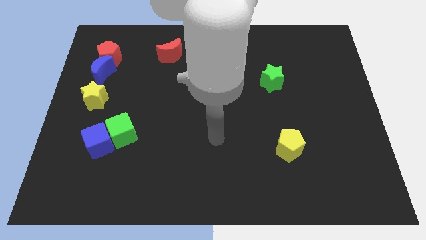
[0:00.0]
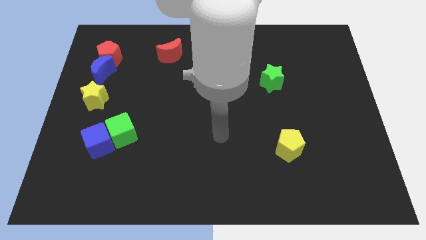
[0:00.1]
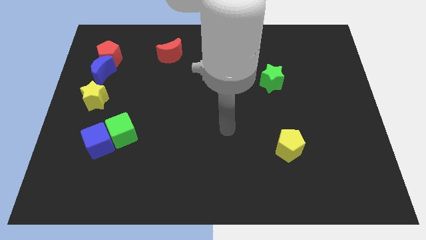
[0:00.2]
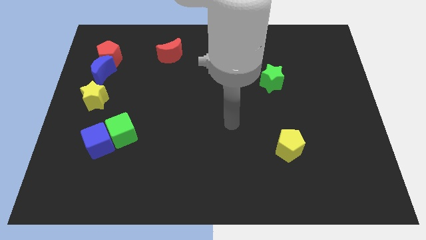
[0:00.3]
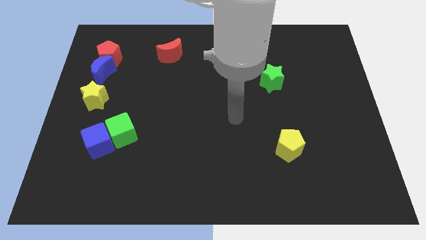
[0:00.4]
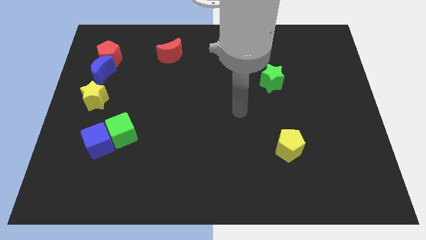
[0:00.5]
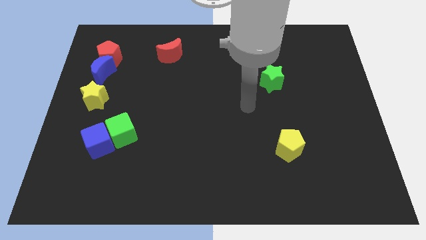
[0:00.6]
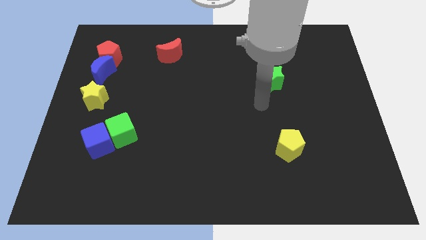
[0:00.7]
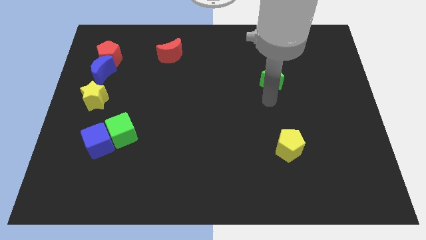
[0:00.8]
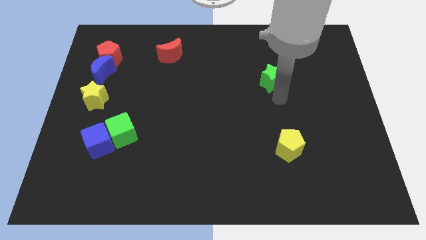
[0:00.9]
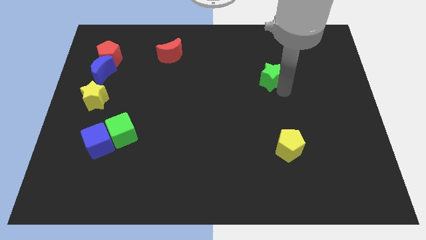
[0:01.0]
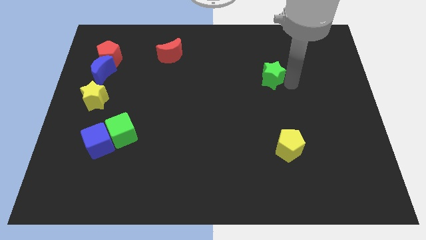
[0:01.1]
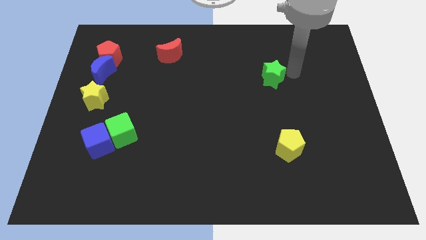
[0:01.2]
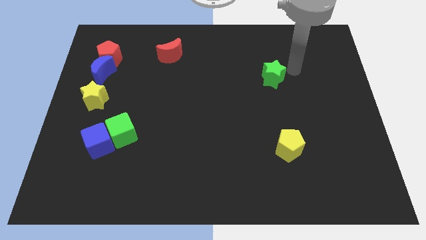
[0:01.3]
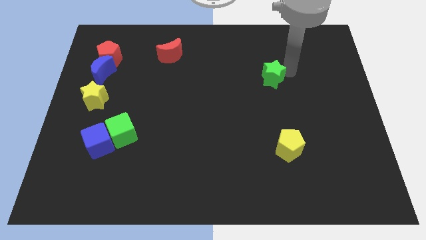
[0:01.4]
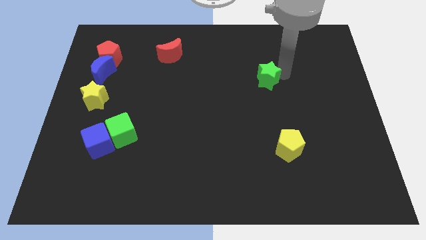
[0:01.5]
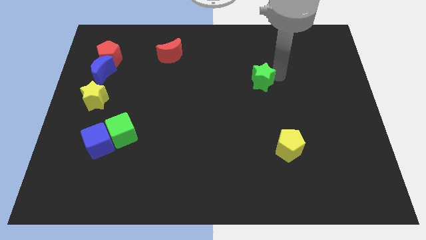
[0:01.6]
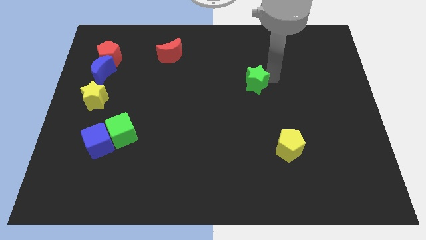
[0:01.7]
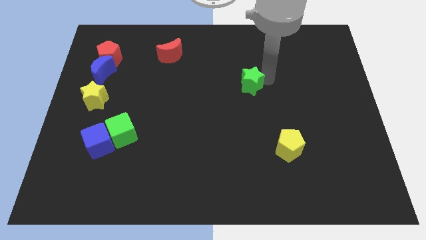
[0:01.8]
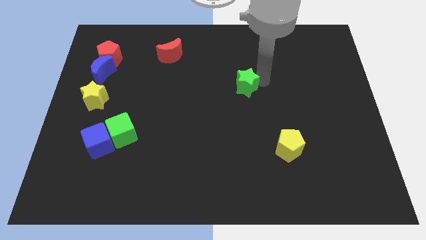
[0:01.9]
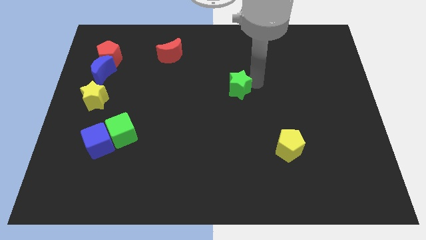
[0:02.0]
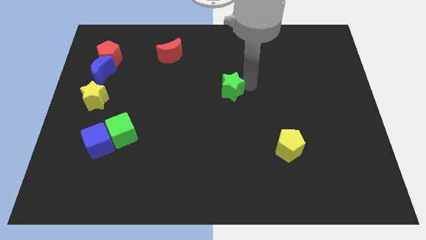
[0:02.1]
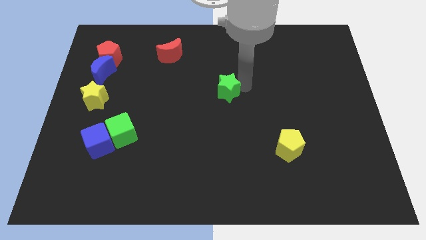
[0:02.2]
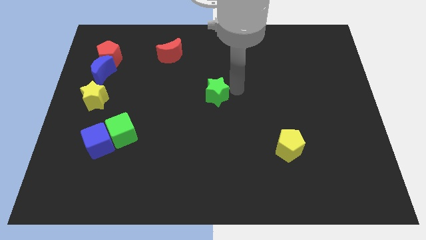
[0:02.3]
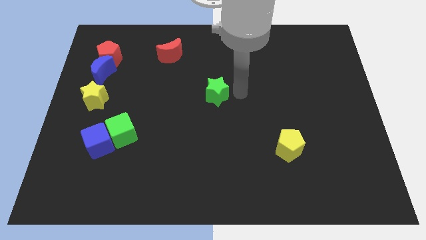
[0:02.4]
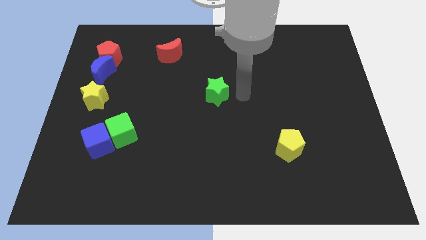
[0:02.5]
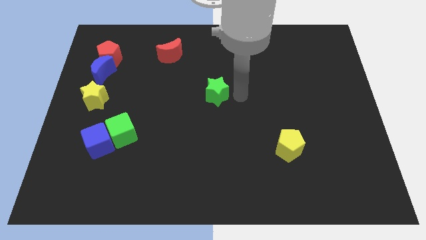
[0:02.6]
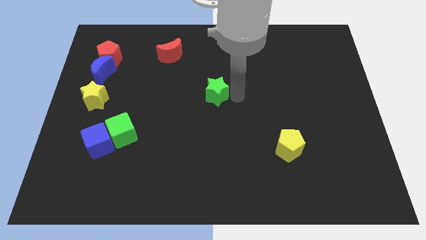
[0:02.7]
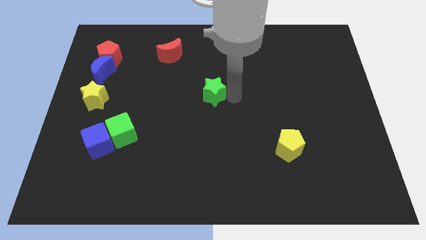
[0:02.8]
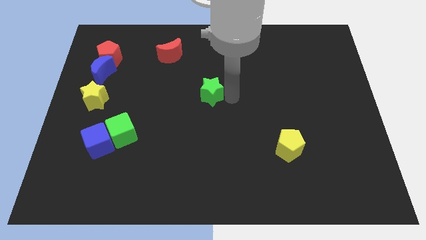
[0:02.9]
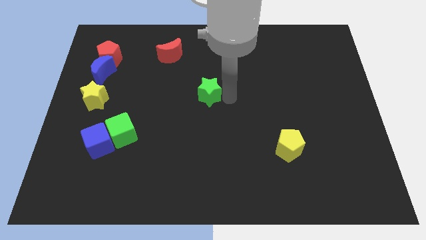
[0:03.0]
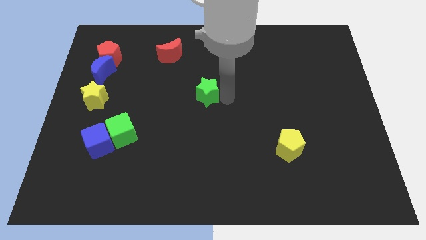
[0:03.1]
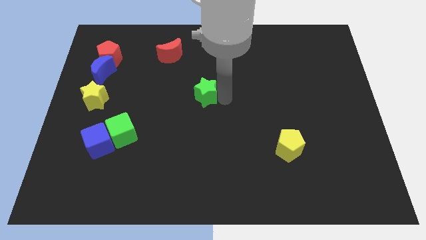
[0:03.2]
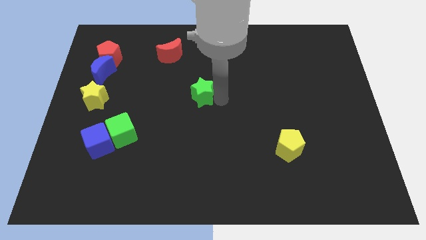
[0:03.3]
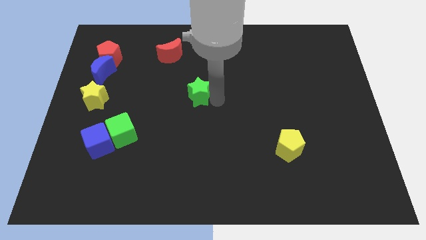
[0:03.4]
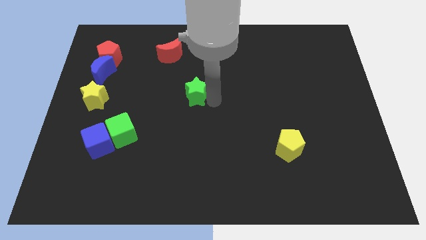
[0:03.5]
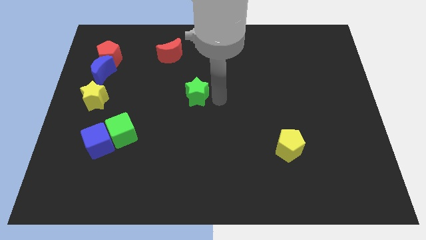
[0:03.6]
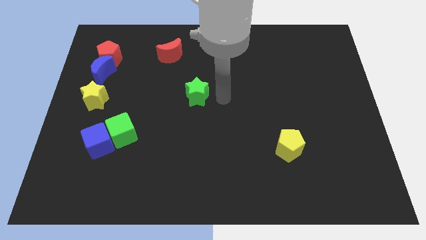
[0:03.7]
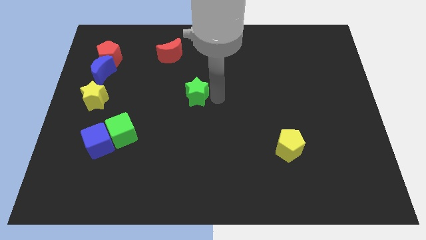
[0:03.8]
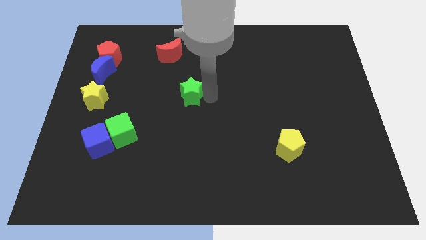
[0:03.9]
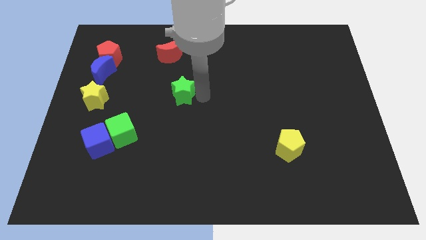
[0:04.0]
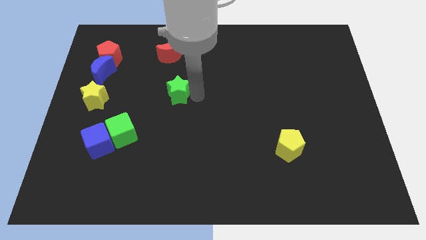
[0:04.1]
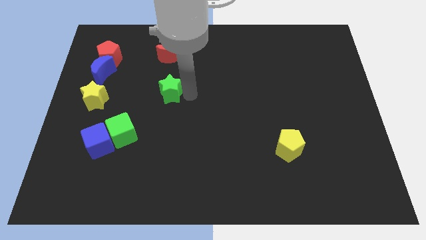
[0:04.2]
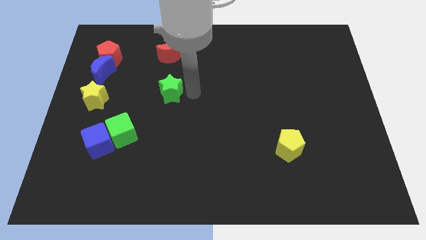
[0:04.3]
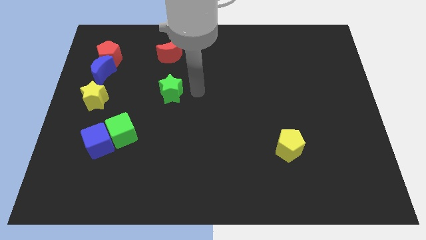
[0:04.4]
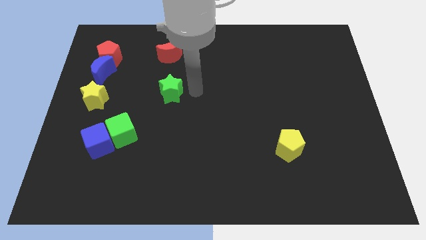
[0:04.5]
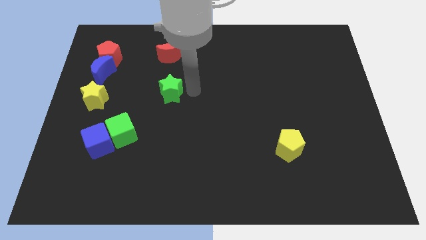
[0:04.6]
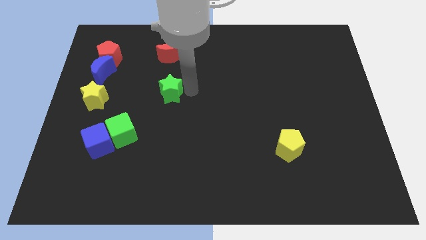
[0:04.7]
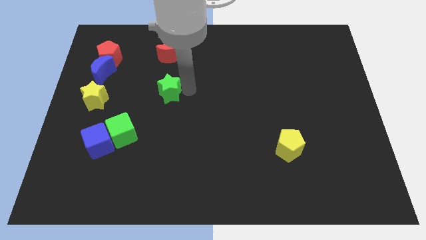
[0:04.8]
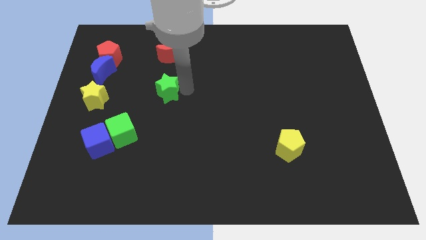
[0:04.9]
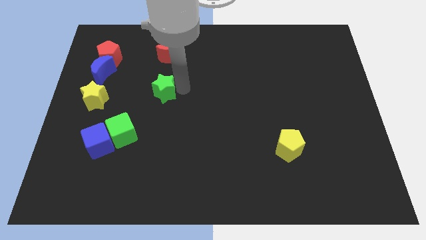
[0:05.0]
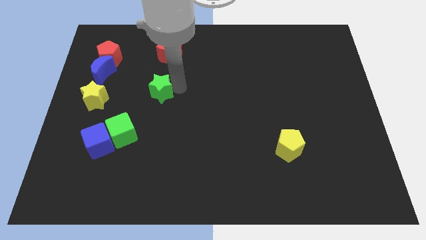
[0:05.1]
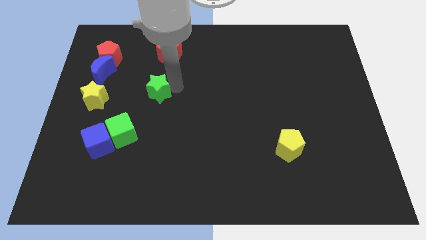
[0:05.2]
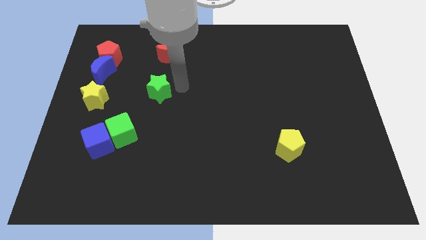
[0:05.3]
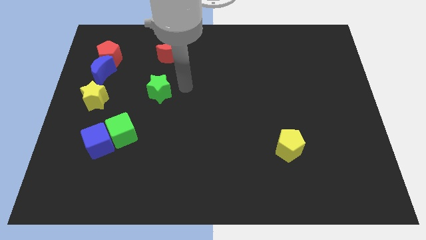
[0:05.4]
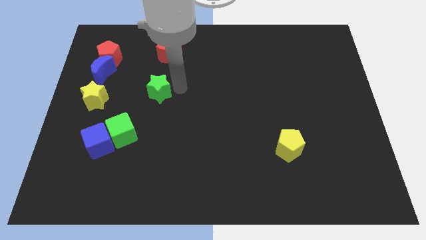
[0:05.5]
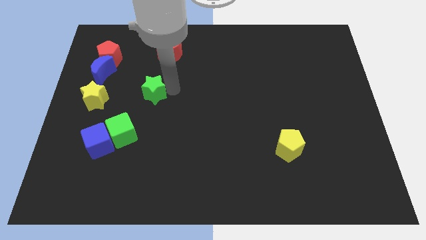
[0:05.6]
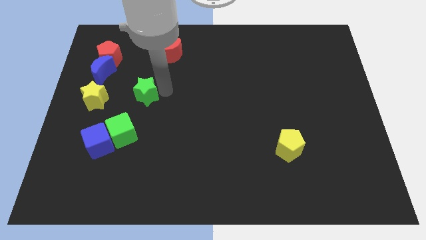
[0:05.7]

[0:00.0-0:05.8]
push the green star to the top side of the green cube
